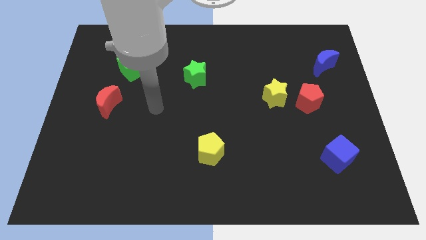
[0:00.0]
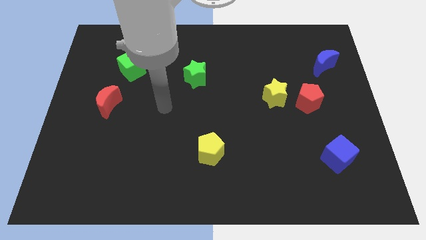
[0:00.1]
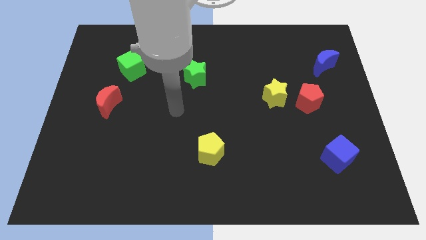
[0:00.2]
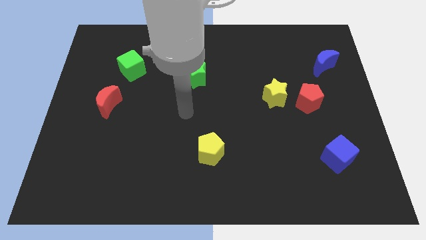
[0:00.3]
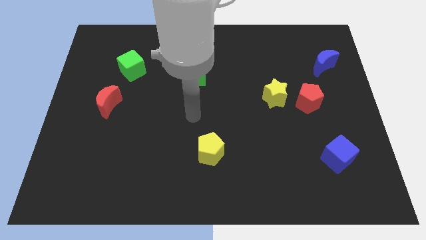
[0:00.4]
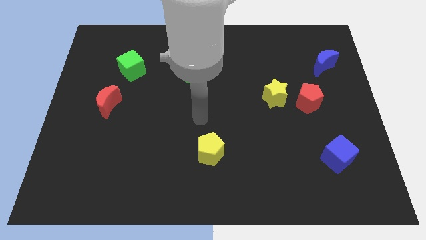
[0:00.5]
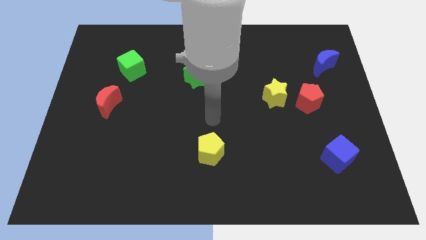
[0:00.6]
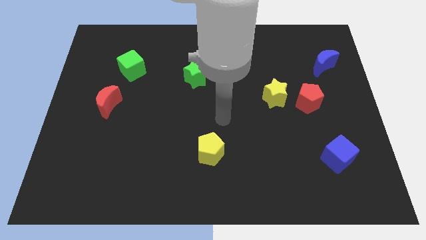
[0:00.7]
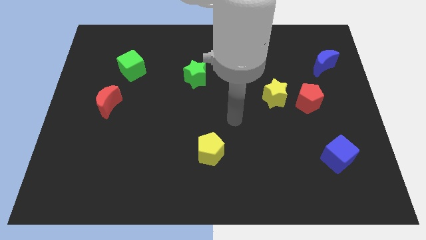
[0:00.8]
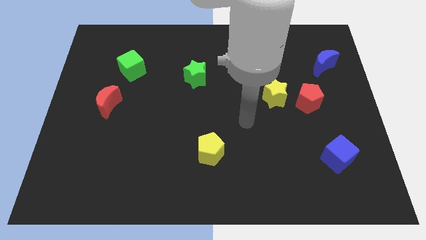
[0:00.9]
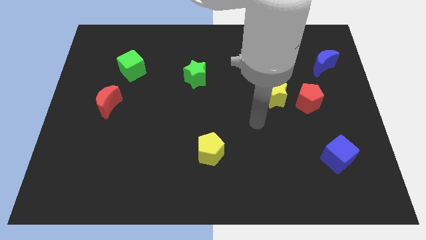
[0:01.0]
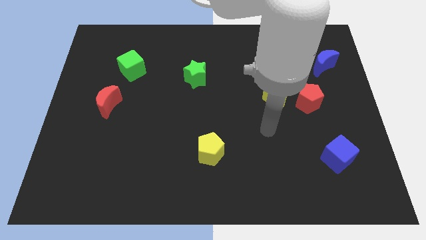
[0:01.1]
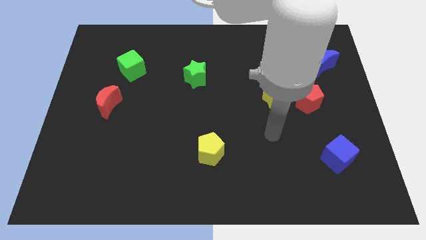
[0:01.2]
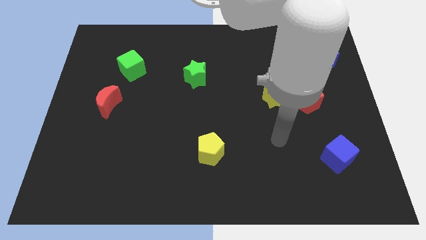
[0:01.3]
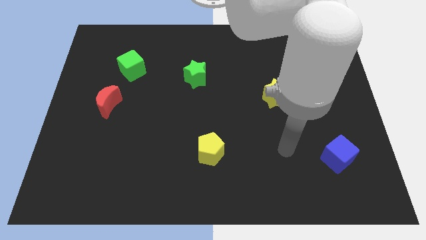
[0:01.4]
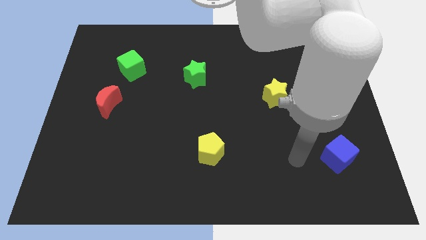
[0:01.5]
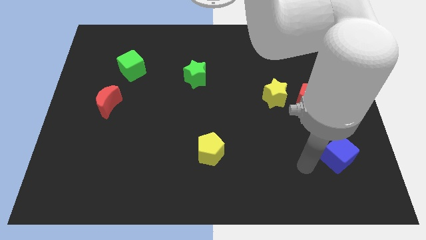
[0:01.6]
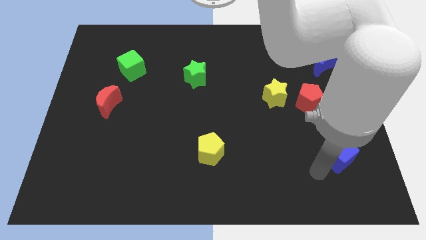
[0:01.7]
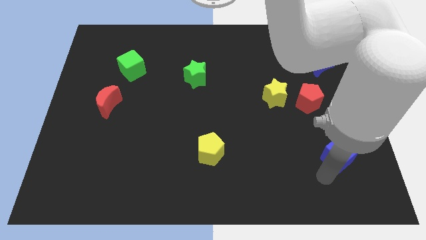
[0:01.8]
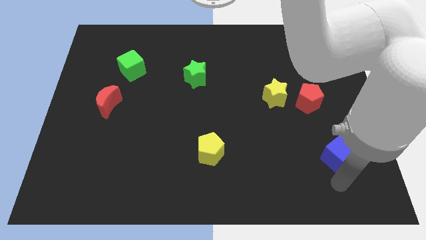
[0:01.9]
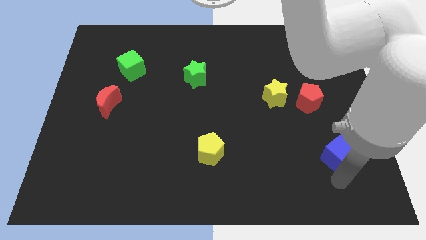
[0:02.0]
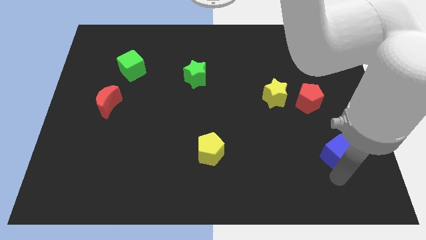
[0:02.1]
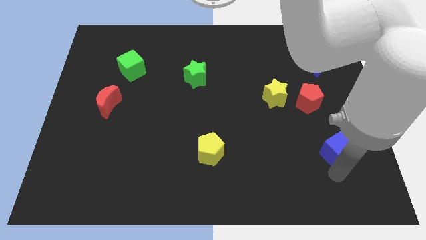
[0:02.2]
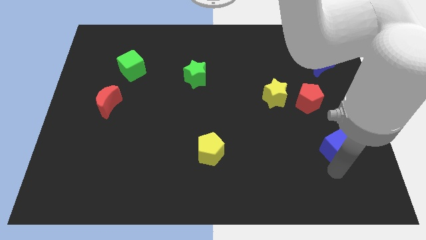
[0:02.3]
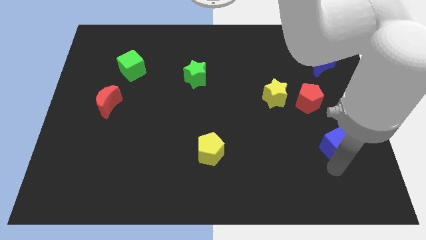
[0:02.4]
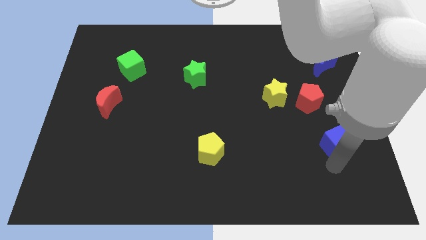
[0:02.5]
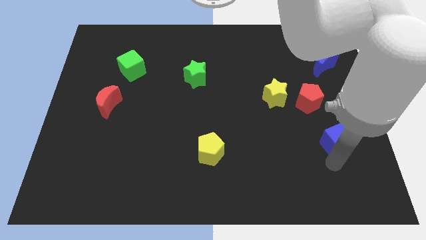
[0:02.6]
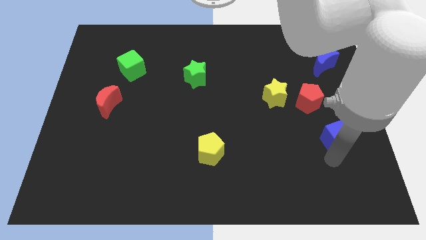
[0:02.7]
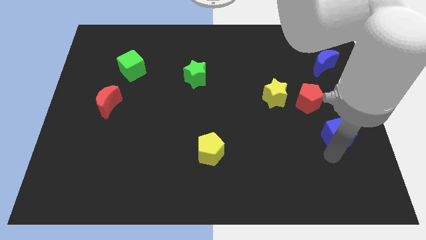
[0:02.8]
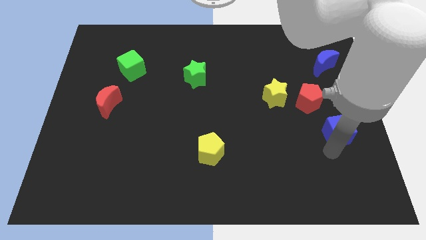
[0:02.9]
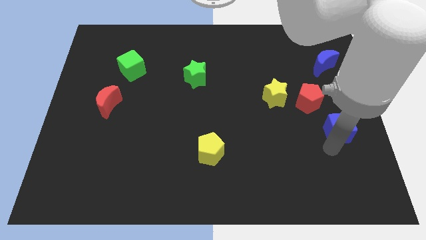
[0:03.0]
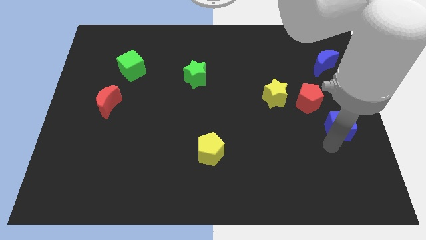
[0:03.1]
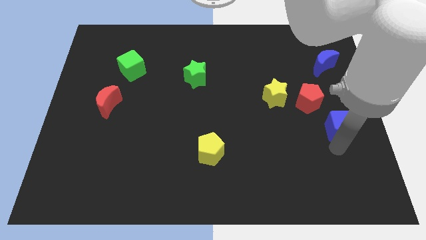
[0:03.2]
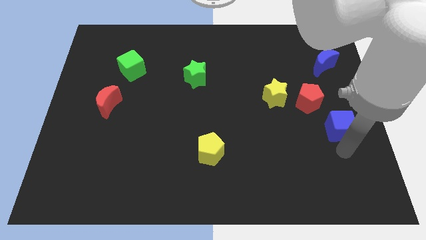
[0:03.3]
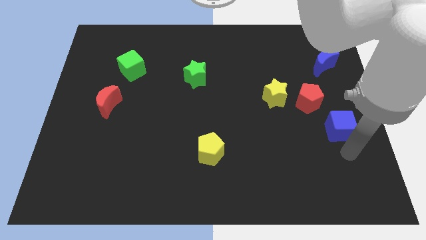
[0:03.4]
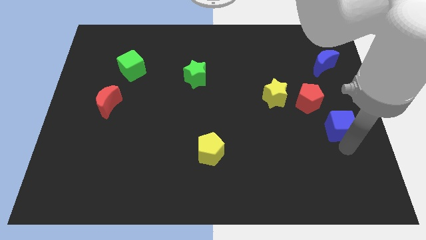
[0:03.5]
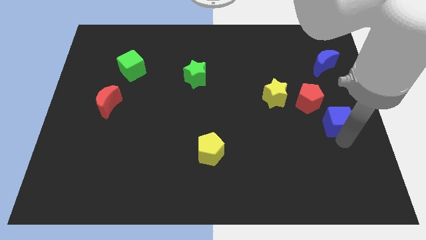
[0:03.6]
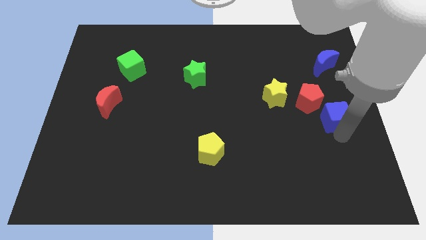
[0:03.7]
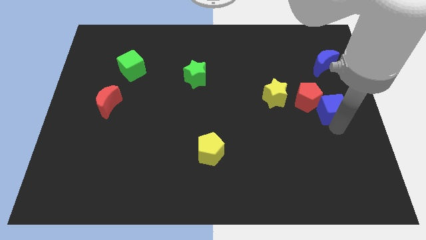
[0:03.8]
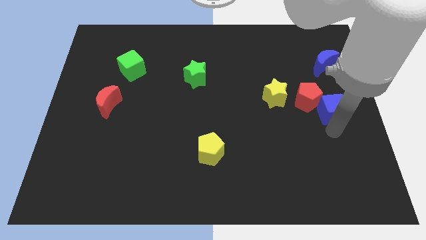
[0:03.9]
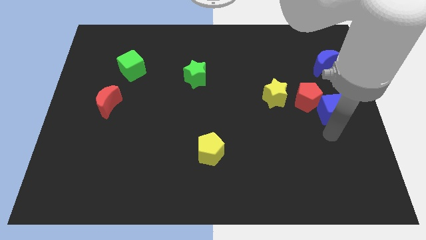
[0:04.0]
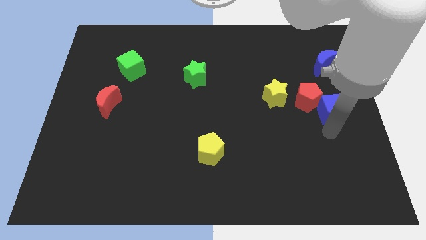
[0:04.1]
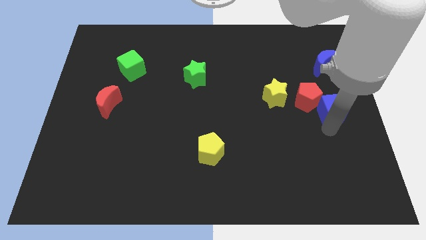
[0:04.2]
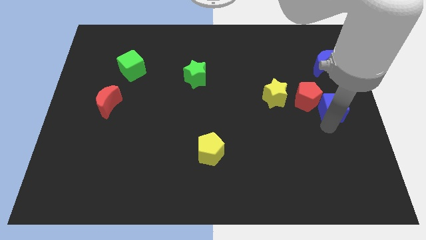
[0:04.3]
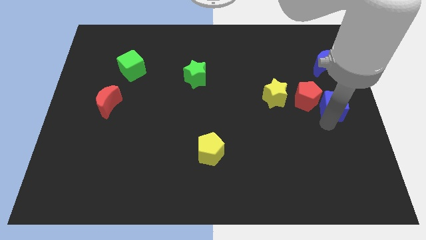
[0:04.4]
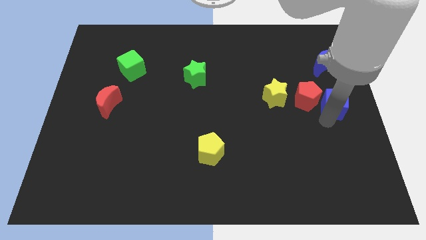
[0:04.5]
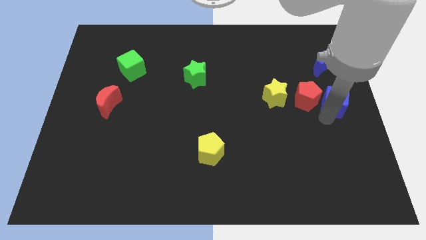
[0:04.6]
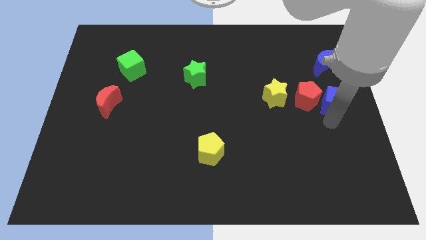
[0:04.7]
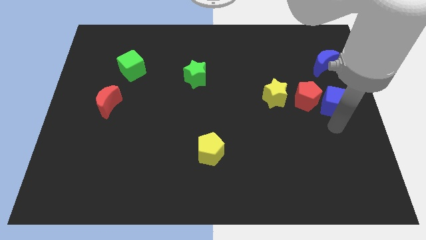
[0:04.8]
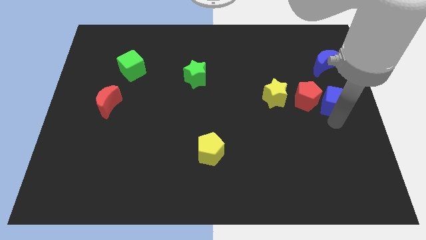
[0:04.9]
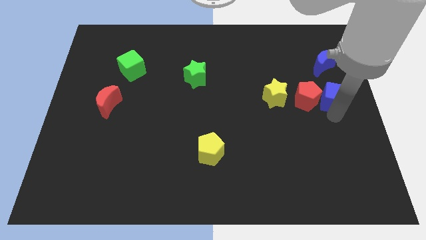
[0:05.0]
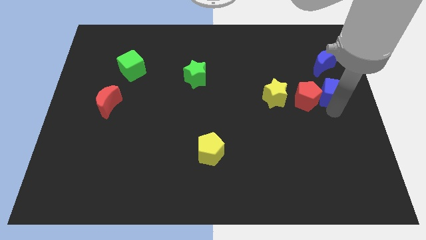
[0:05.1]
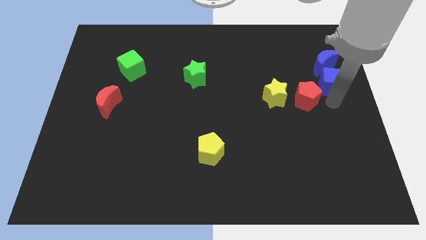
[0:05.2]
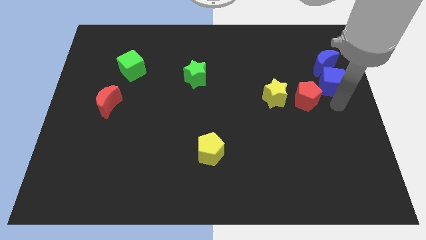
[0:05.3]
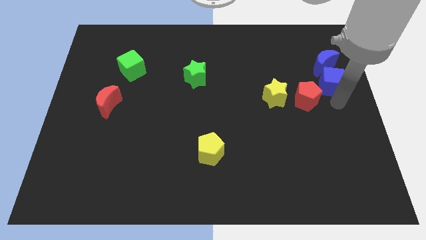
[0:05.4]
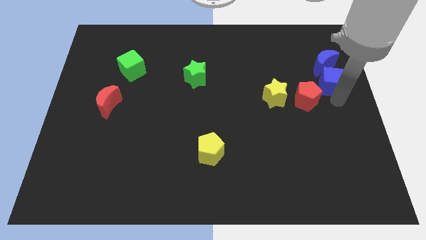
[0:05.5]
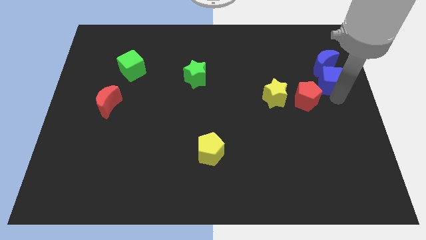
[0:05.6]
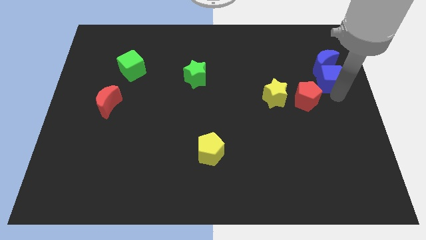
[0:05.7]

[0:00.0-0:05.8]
push the blue cube close to the blue moon

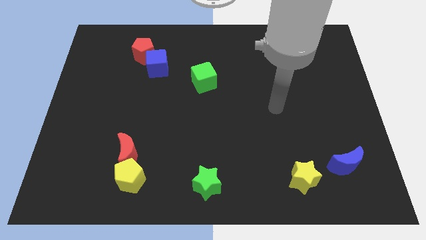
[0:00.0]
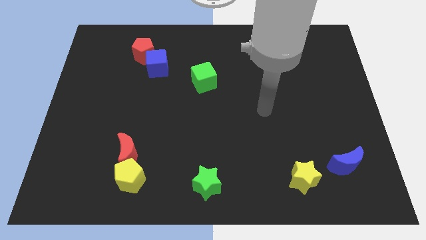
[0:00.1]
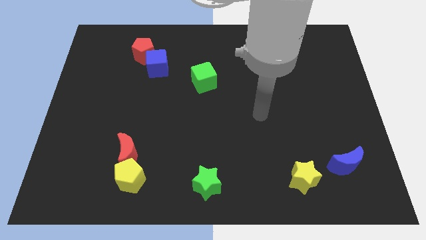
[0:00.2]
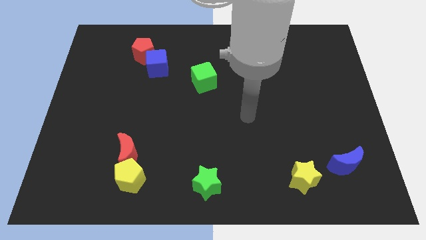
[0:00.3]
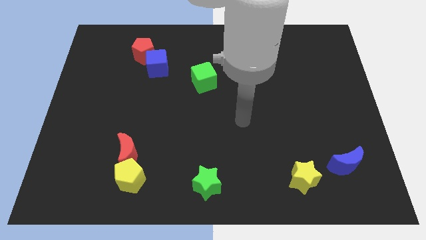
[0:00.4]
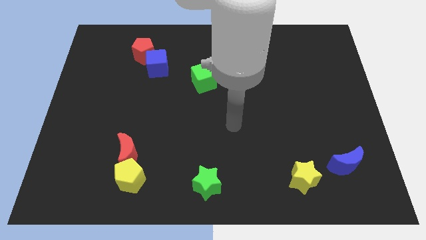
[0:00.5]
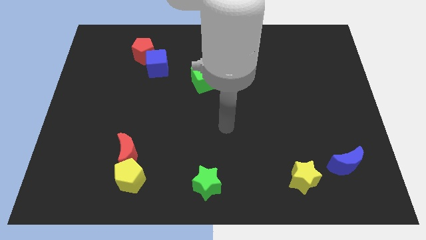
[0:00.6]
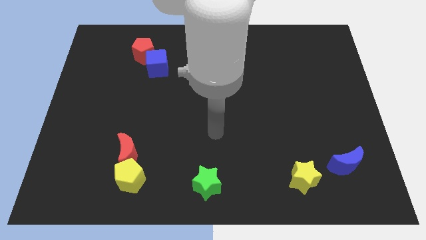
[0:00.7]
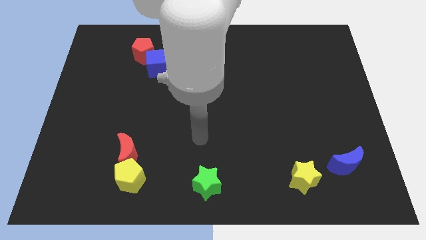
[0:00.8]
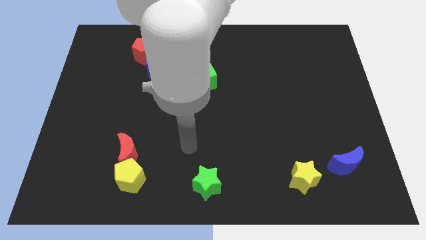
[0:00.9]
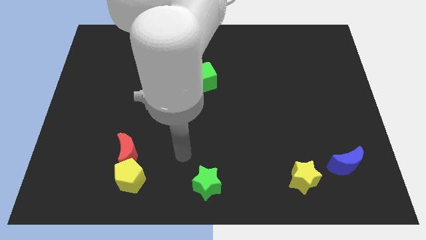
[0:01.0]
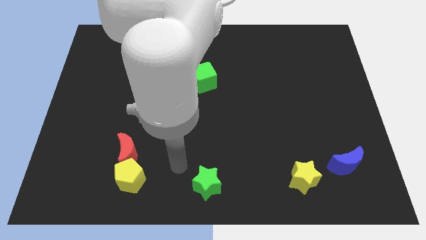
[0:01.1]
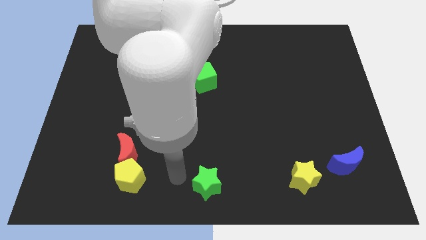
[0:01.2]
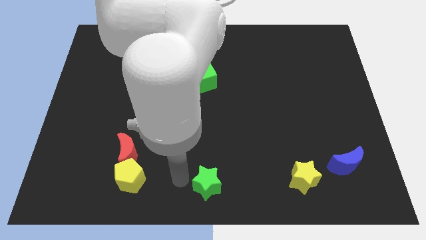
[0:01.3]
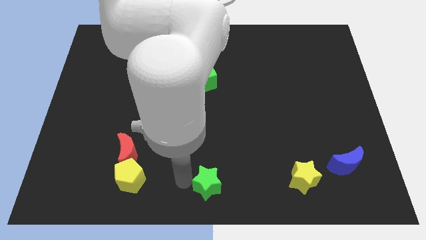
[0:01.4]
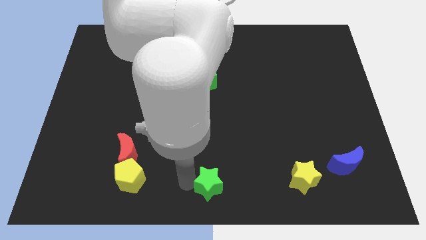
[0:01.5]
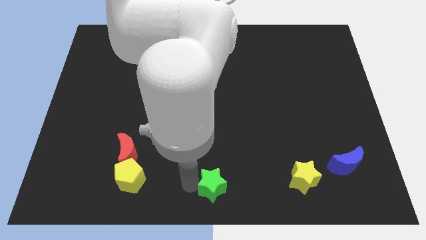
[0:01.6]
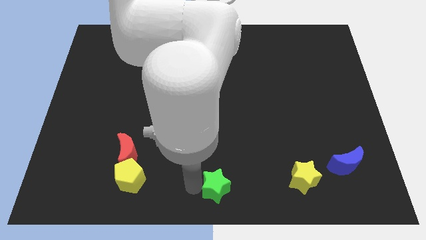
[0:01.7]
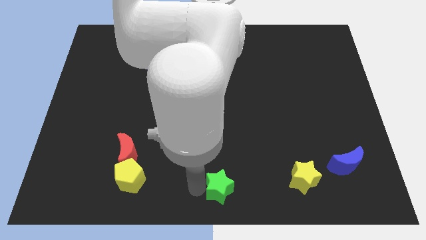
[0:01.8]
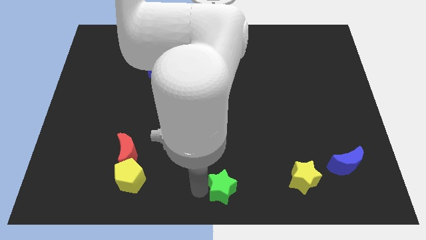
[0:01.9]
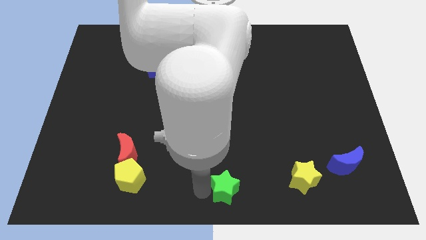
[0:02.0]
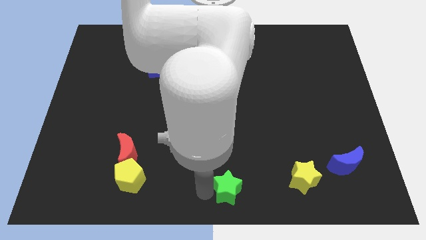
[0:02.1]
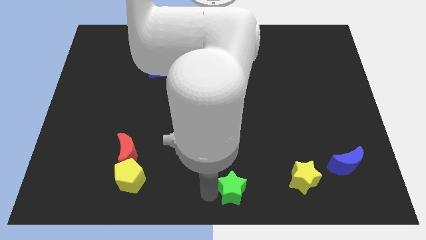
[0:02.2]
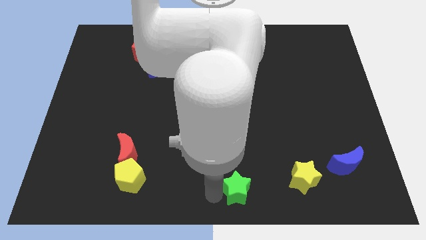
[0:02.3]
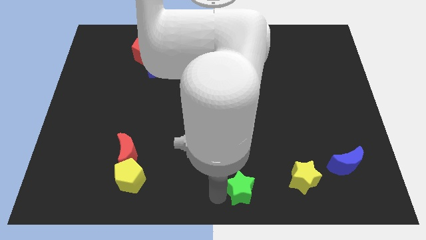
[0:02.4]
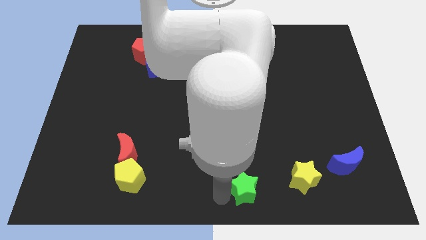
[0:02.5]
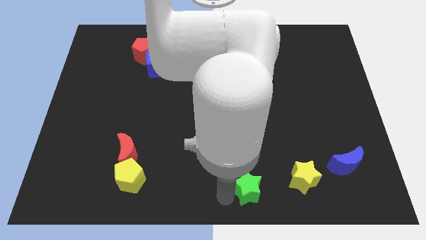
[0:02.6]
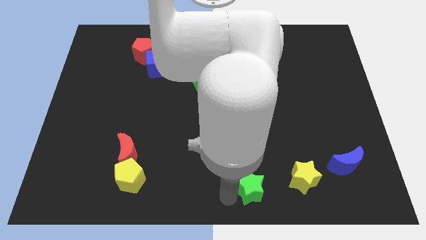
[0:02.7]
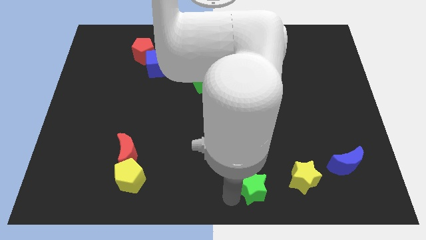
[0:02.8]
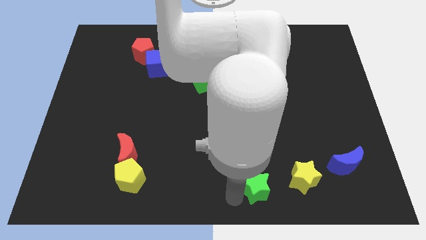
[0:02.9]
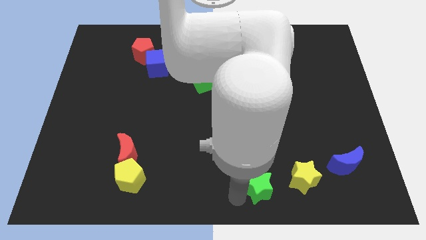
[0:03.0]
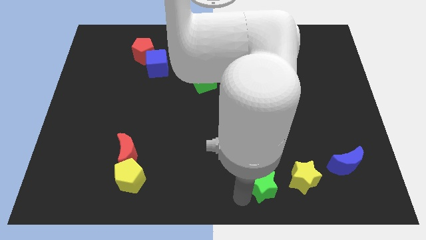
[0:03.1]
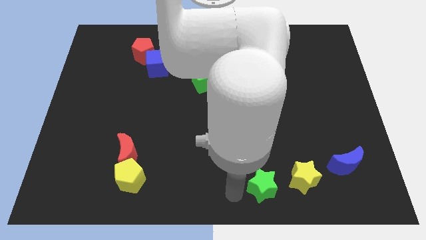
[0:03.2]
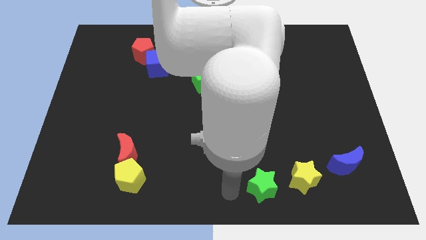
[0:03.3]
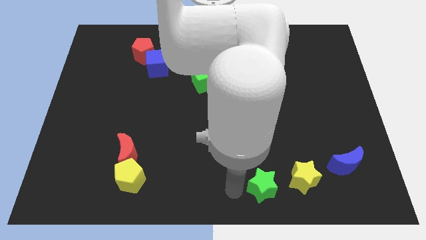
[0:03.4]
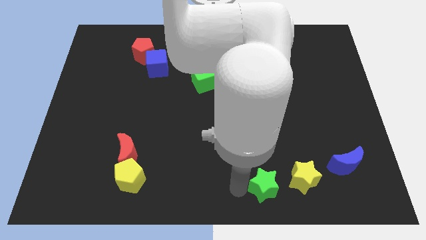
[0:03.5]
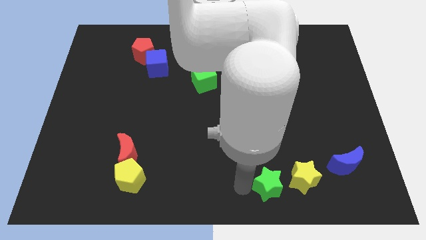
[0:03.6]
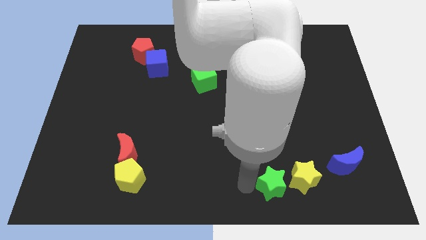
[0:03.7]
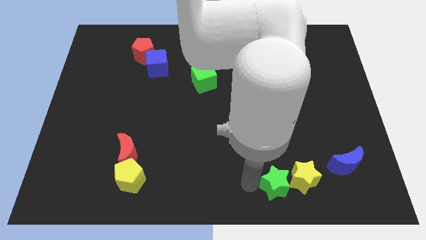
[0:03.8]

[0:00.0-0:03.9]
put the green star towards the yellow star
